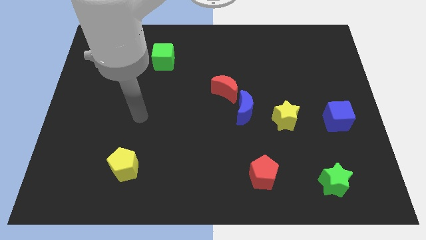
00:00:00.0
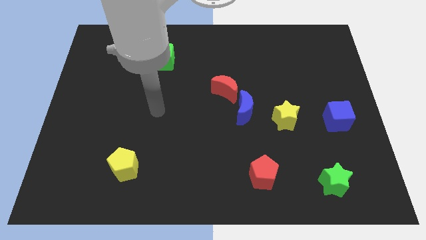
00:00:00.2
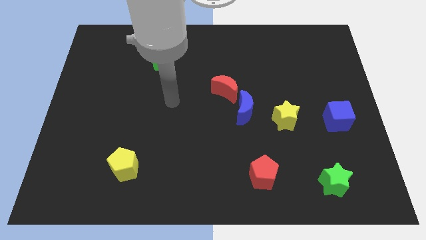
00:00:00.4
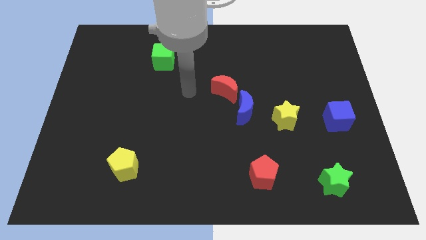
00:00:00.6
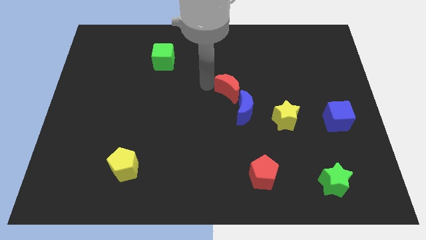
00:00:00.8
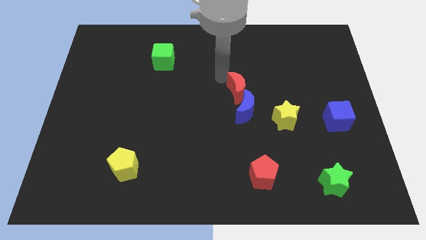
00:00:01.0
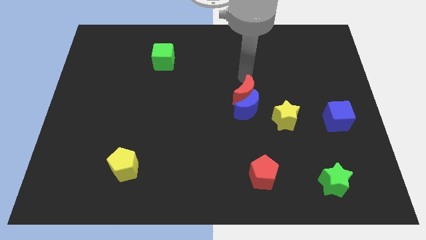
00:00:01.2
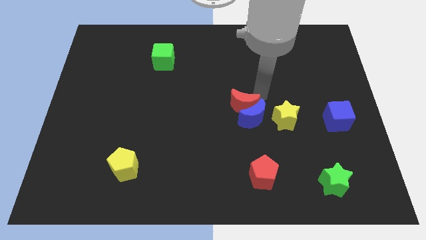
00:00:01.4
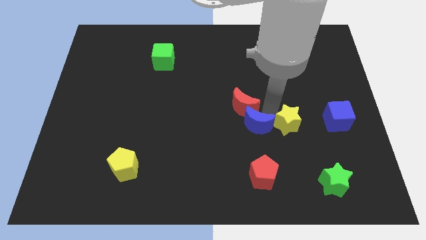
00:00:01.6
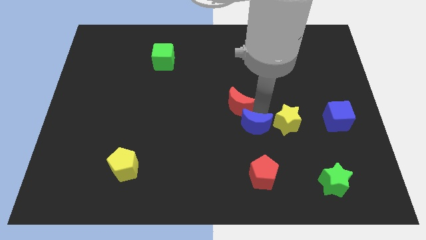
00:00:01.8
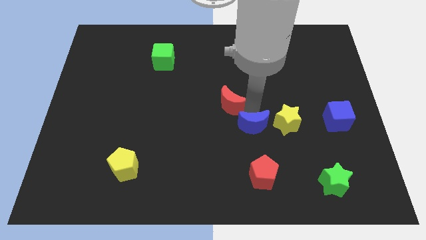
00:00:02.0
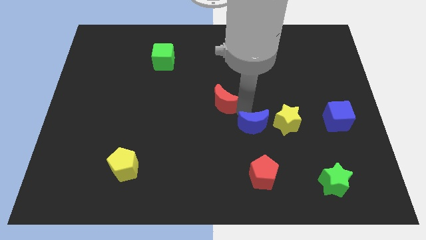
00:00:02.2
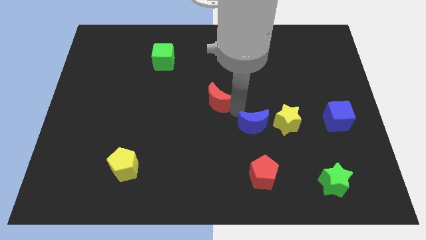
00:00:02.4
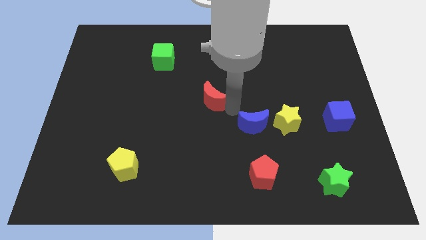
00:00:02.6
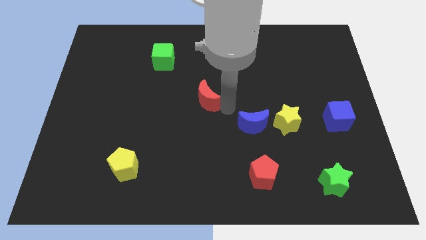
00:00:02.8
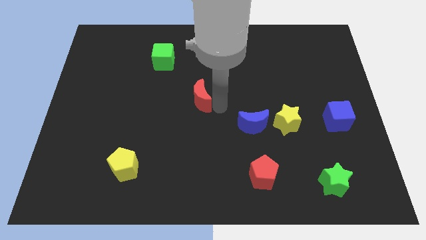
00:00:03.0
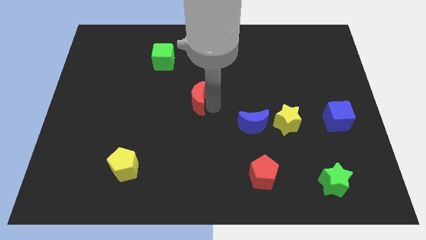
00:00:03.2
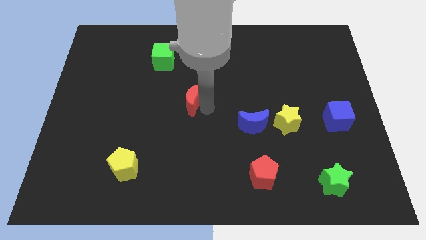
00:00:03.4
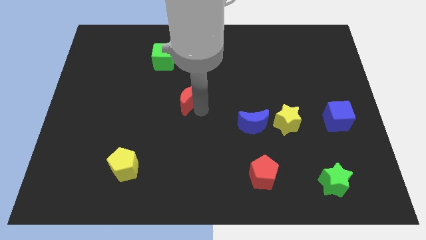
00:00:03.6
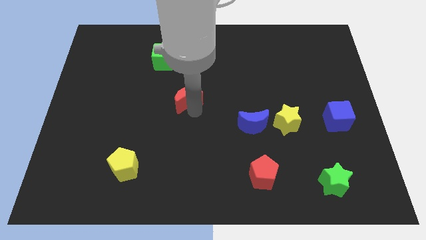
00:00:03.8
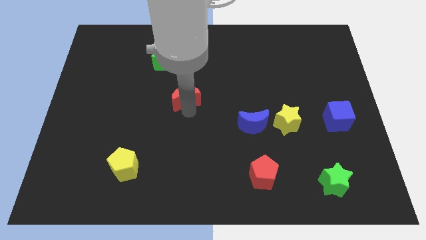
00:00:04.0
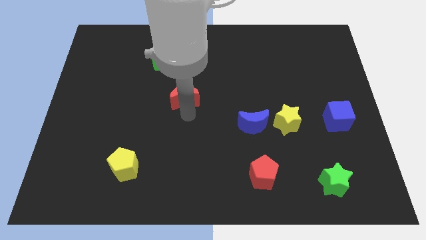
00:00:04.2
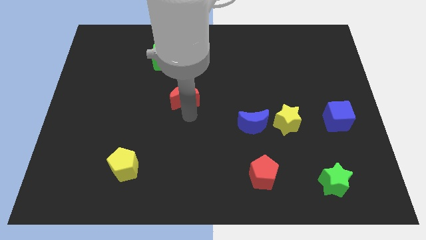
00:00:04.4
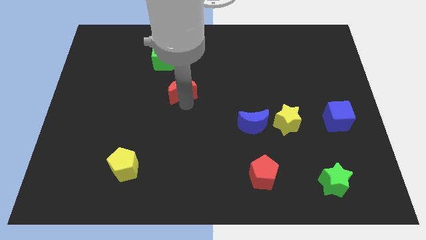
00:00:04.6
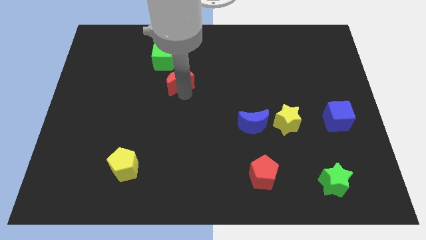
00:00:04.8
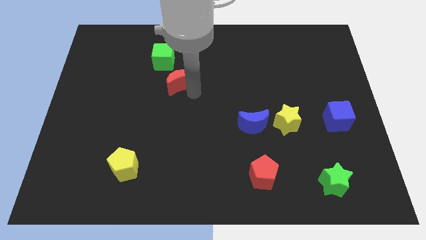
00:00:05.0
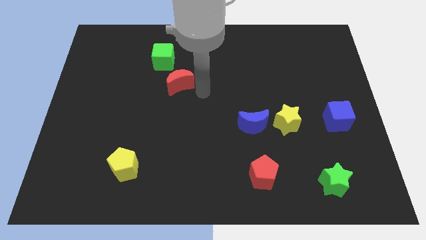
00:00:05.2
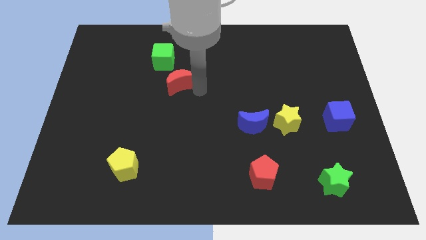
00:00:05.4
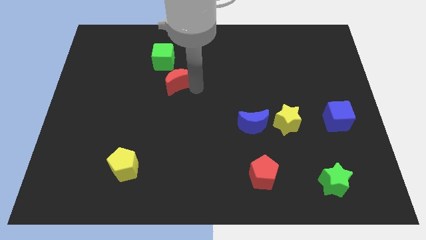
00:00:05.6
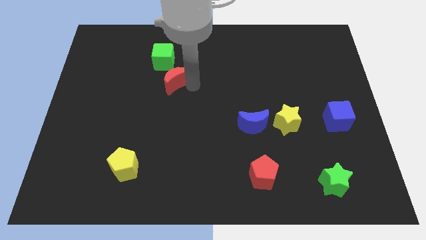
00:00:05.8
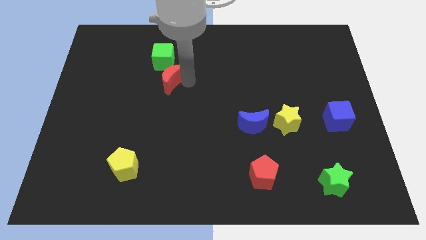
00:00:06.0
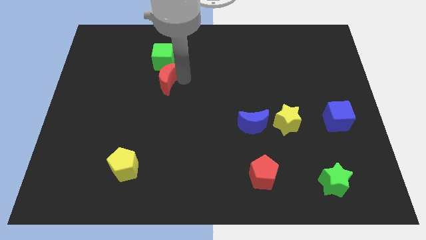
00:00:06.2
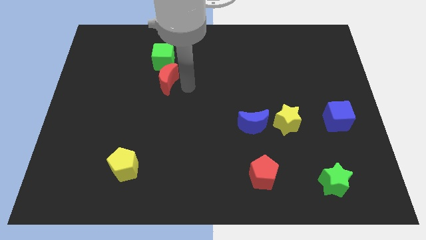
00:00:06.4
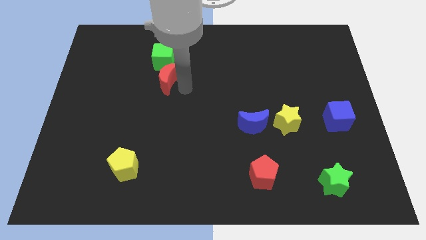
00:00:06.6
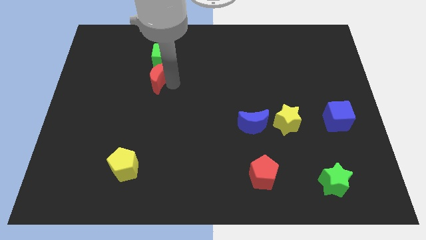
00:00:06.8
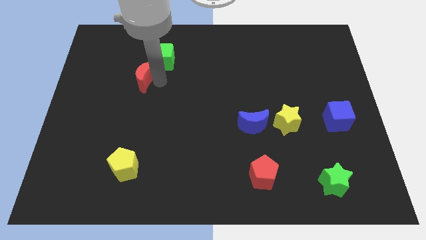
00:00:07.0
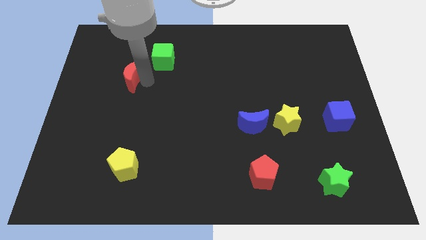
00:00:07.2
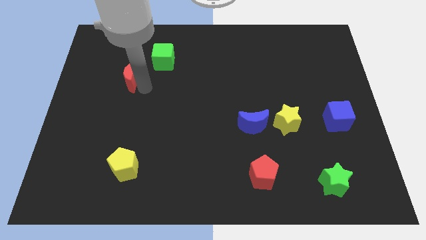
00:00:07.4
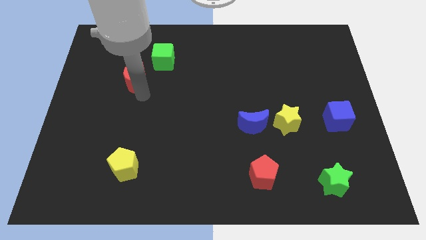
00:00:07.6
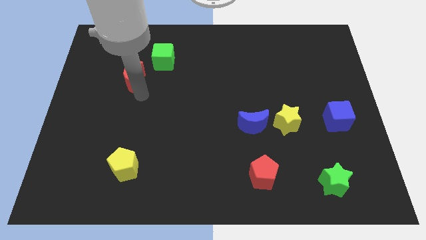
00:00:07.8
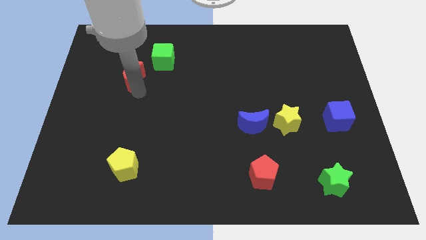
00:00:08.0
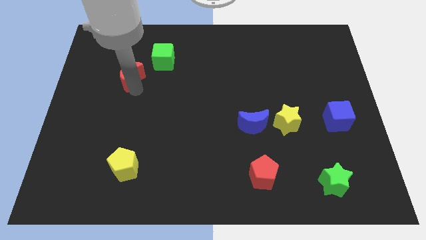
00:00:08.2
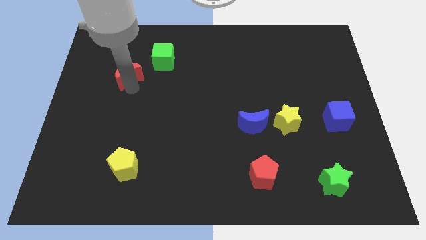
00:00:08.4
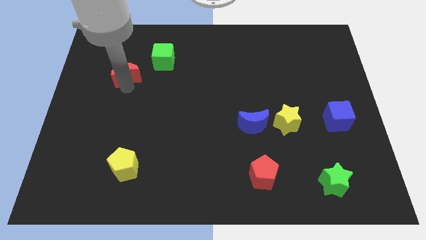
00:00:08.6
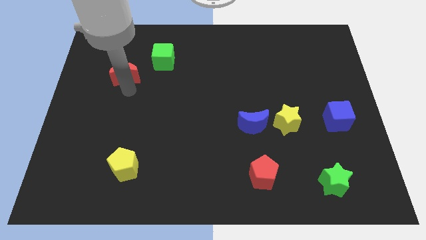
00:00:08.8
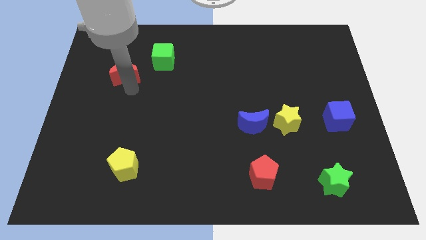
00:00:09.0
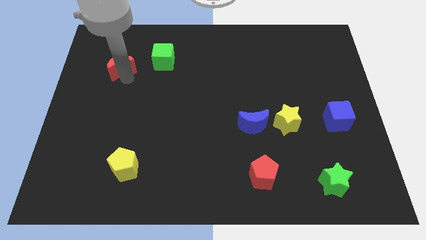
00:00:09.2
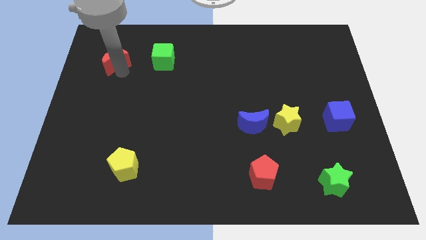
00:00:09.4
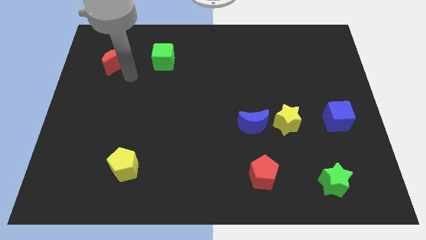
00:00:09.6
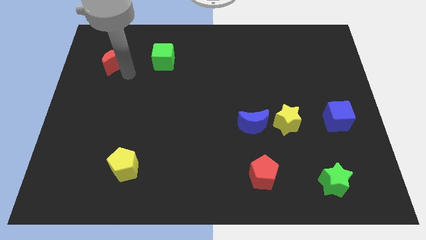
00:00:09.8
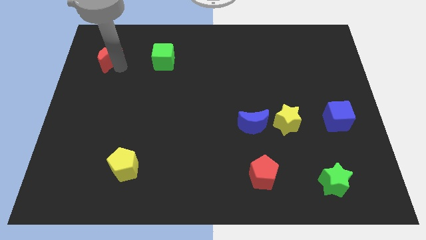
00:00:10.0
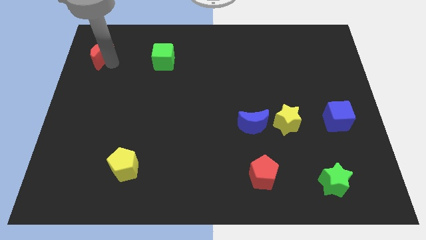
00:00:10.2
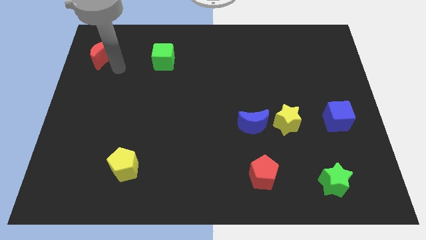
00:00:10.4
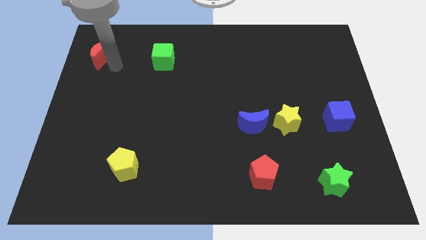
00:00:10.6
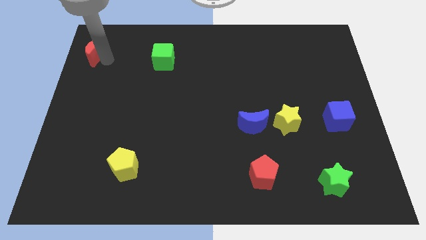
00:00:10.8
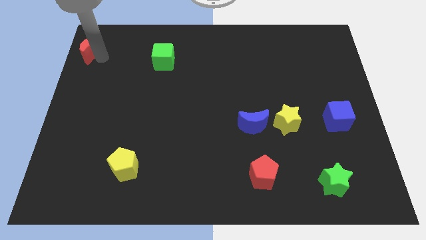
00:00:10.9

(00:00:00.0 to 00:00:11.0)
slide the red moon to the top left of the board

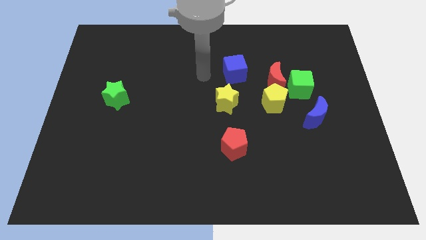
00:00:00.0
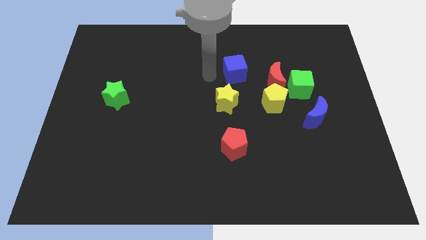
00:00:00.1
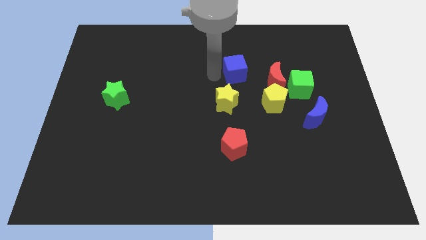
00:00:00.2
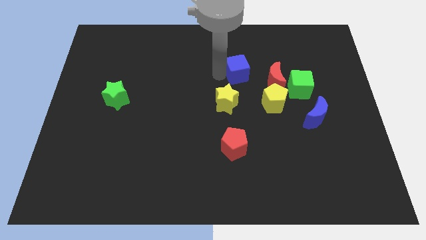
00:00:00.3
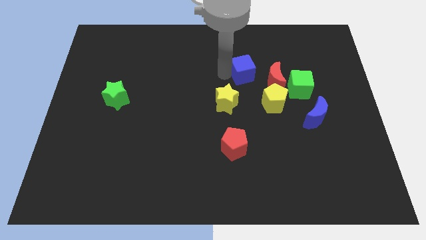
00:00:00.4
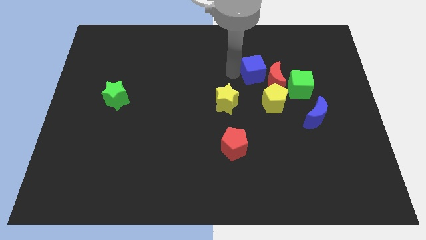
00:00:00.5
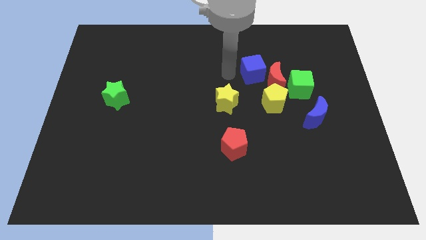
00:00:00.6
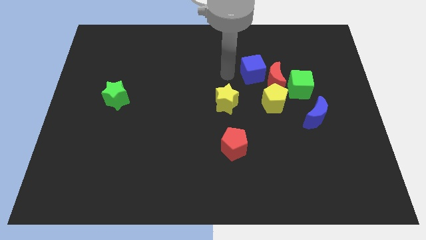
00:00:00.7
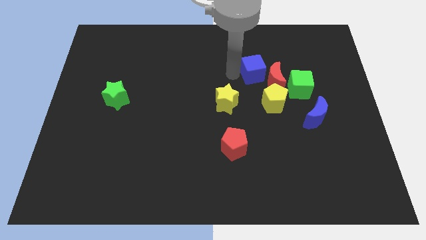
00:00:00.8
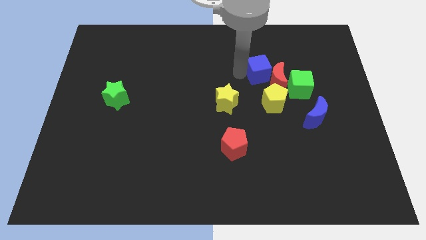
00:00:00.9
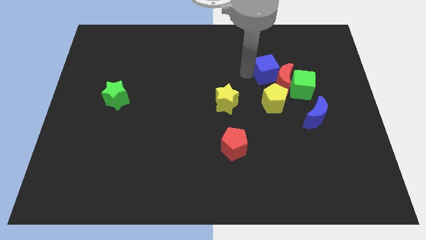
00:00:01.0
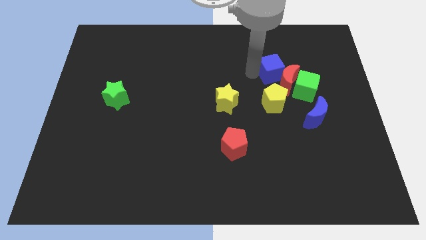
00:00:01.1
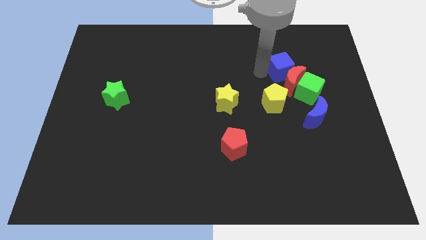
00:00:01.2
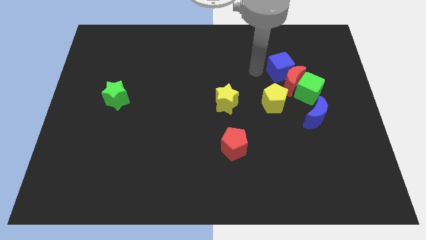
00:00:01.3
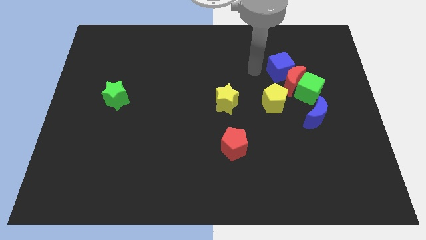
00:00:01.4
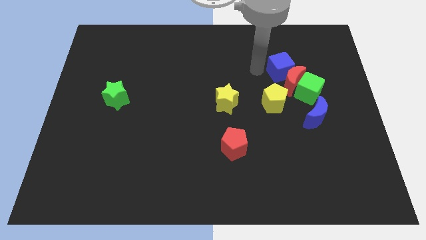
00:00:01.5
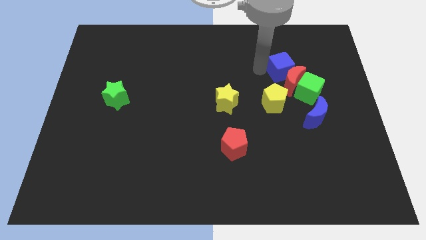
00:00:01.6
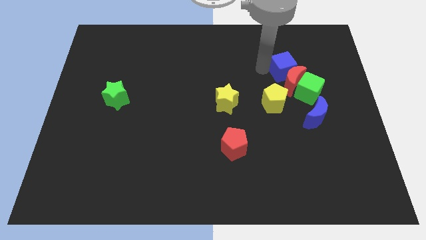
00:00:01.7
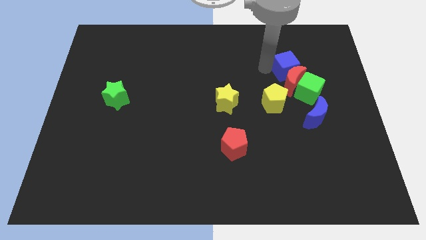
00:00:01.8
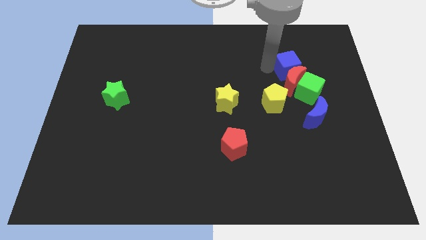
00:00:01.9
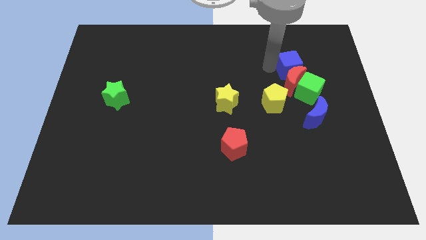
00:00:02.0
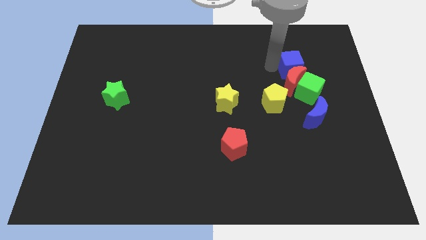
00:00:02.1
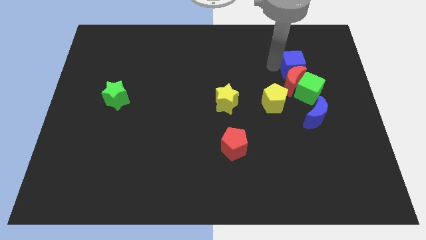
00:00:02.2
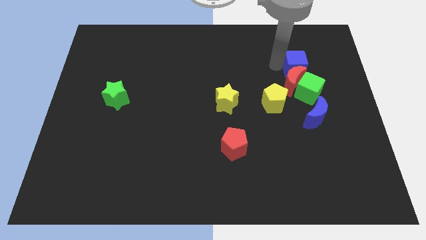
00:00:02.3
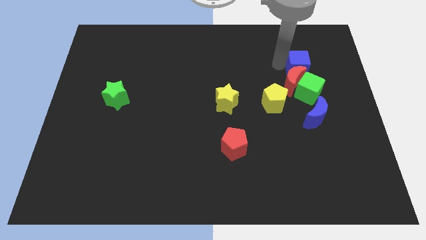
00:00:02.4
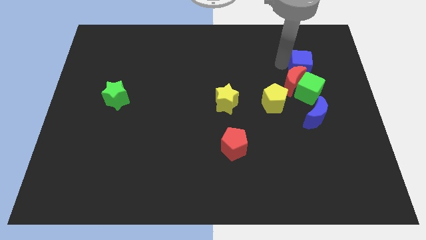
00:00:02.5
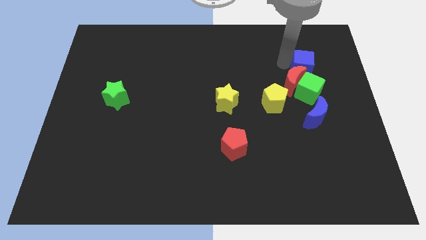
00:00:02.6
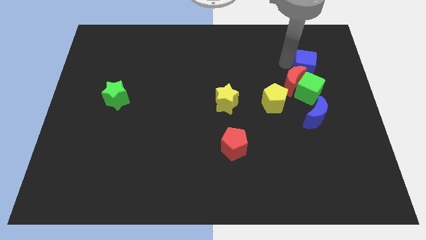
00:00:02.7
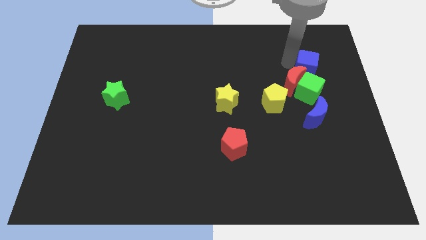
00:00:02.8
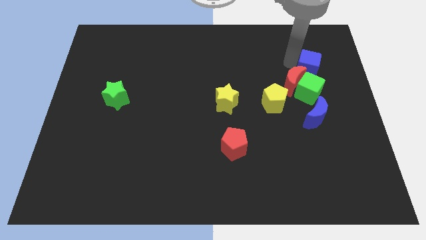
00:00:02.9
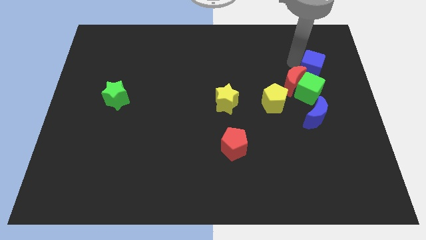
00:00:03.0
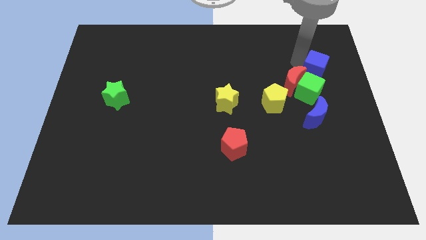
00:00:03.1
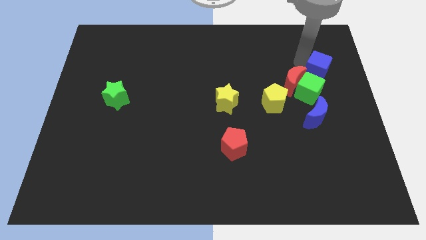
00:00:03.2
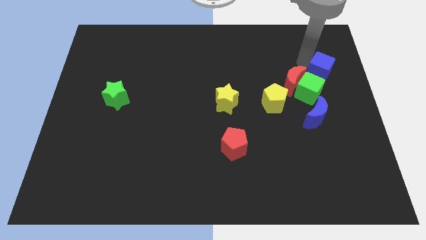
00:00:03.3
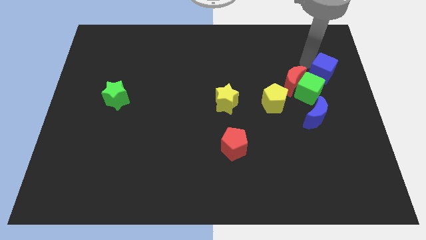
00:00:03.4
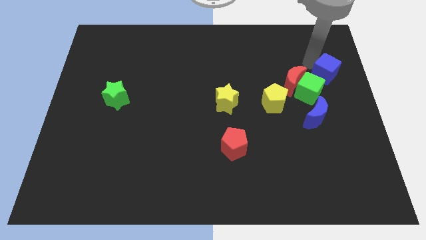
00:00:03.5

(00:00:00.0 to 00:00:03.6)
put the blue cube to the right side
